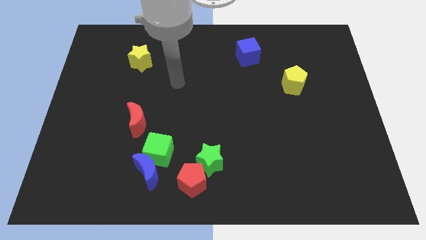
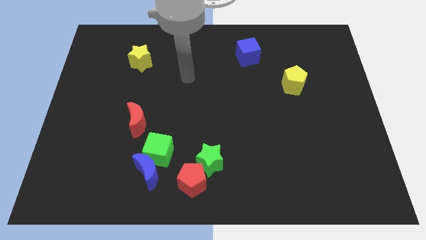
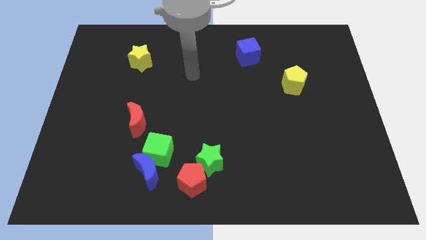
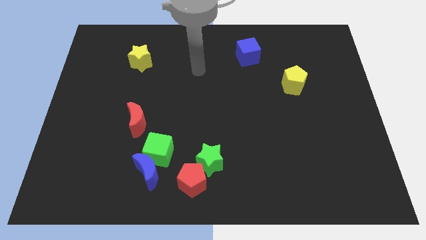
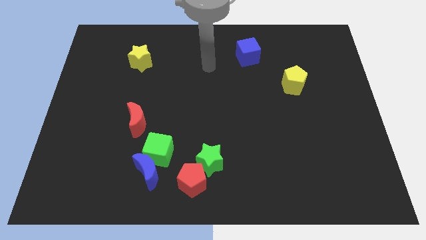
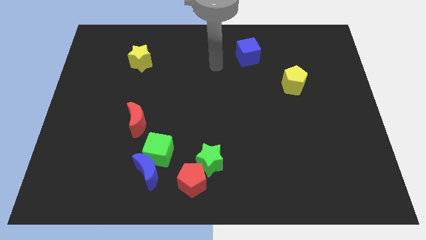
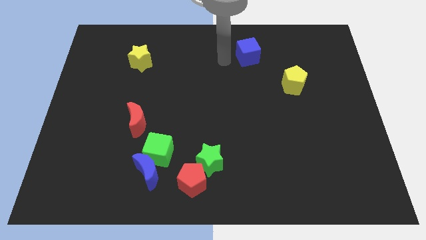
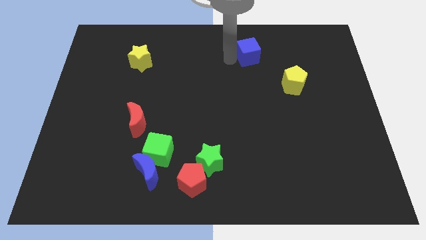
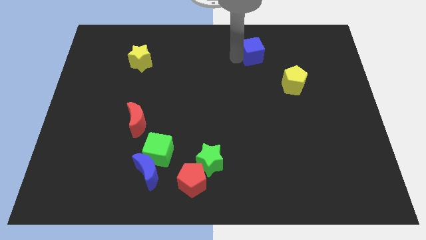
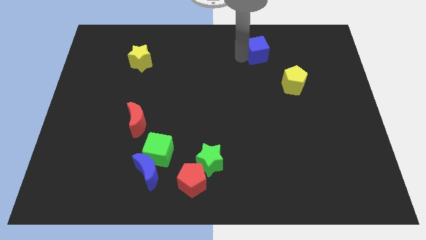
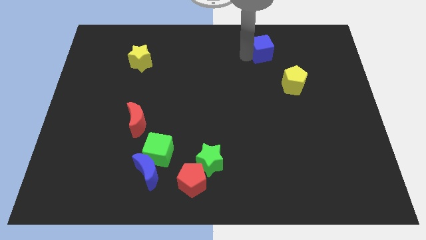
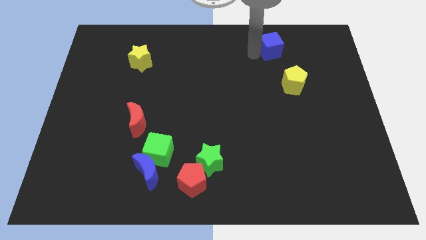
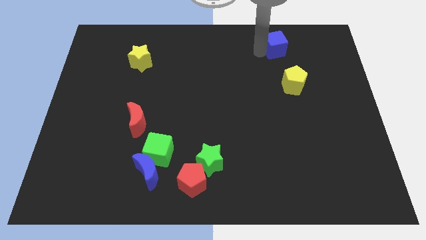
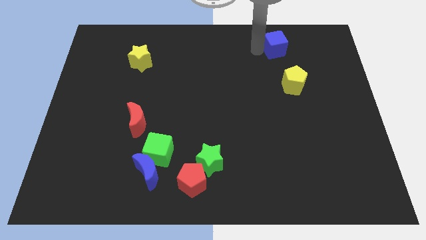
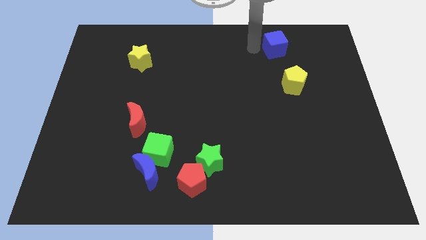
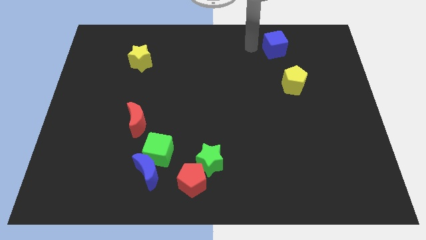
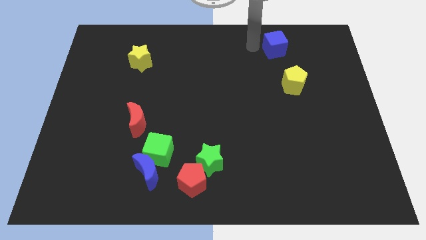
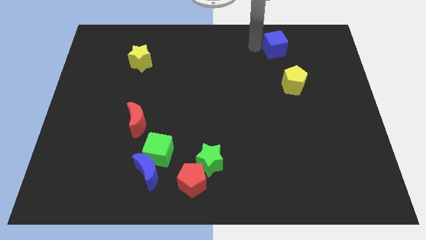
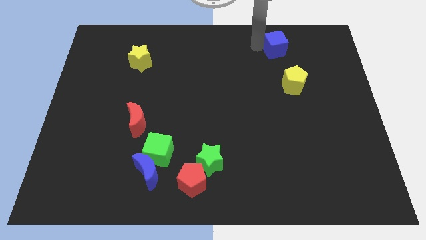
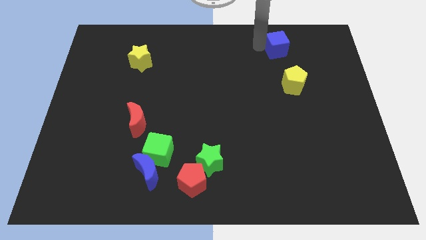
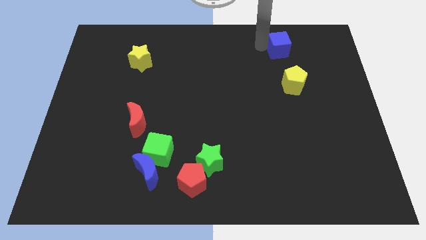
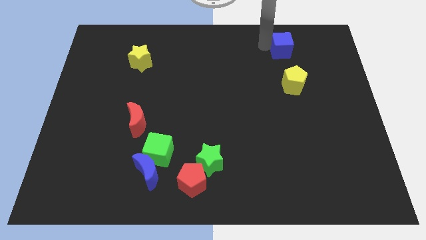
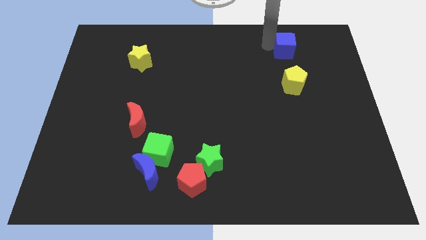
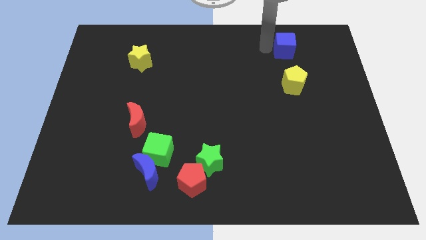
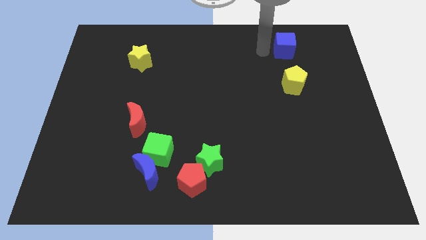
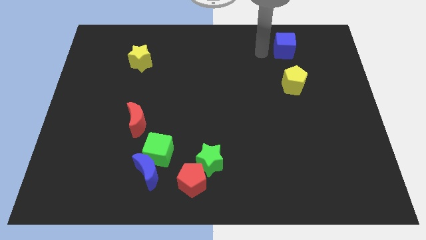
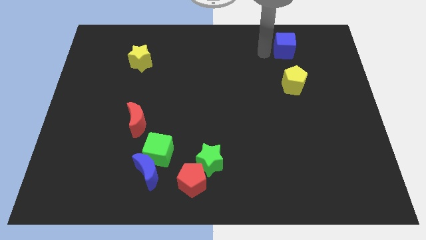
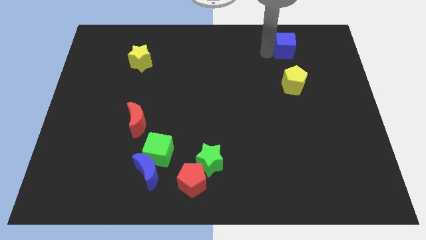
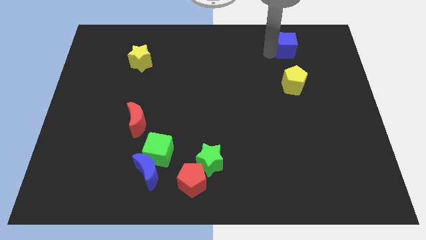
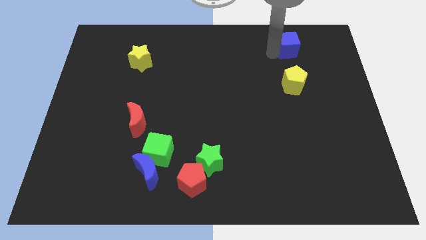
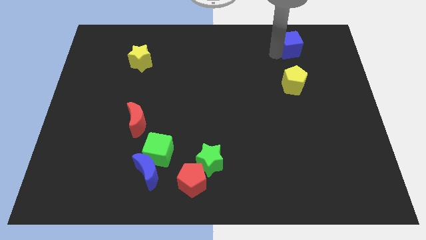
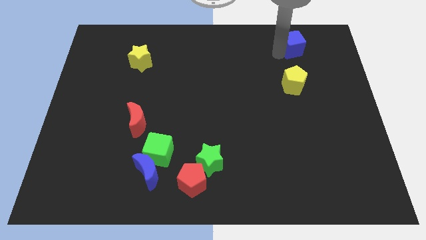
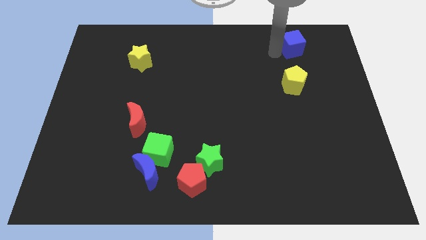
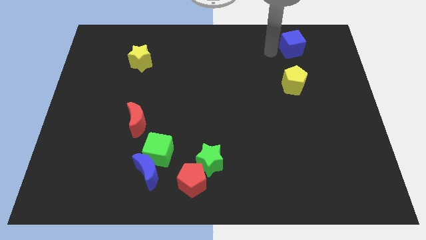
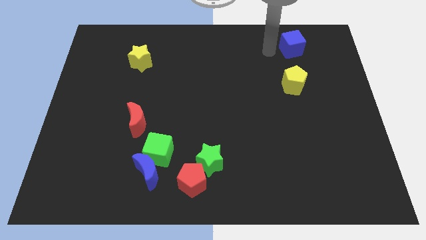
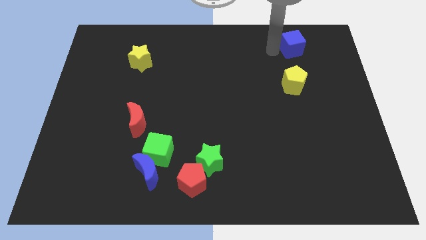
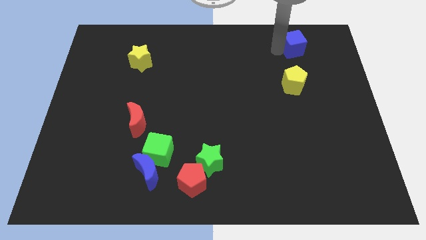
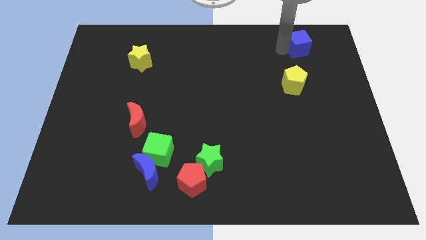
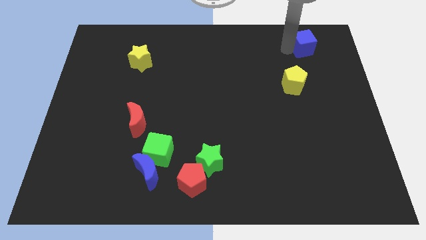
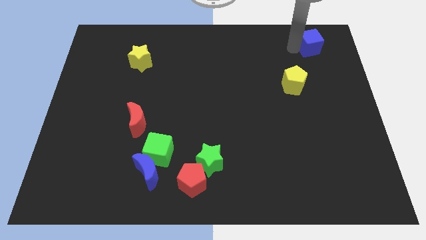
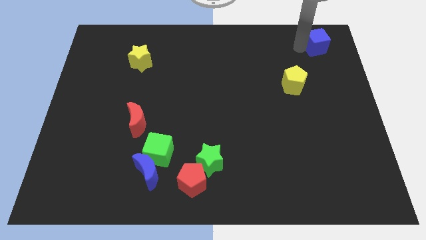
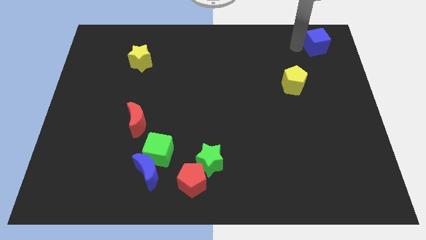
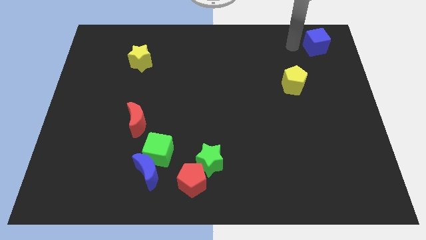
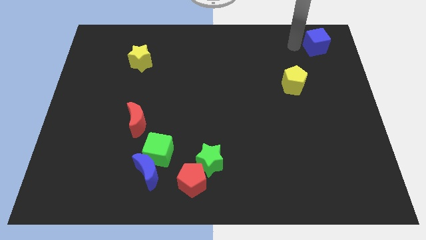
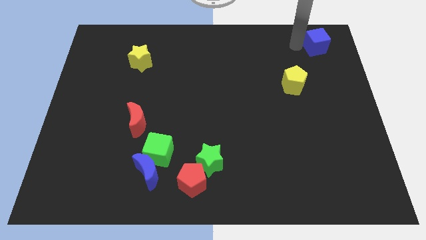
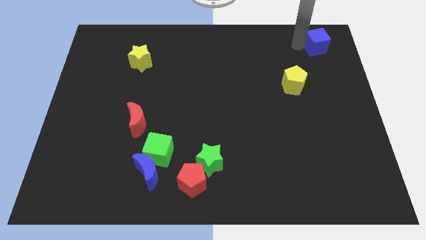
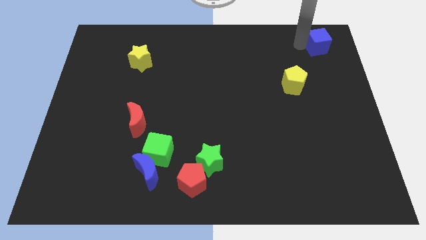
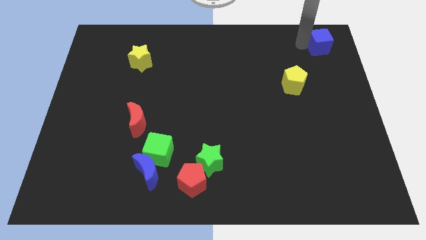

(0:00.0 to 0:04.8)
push the blue cube to the top right corner

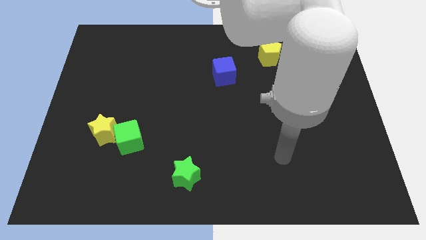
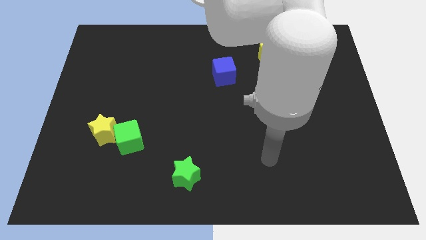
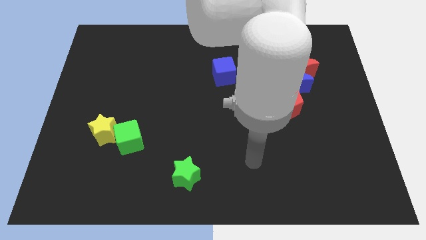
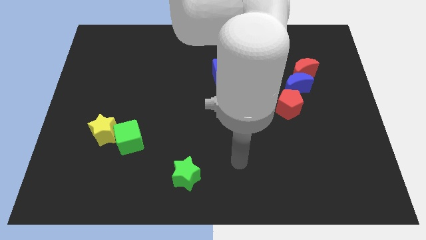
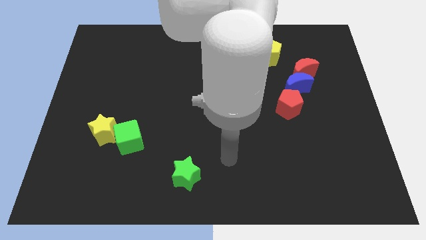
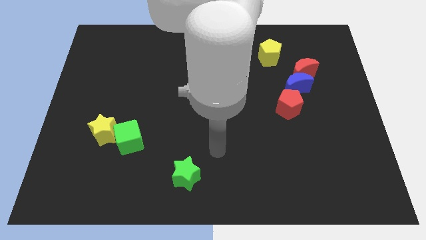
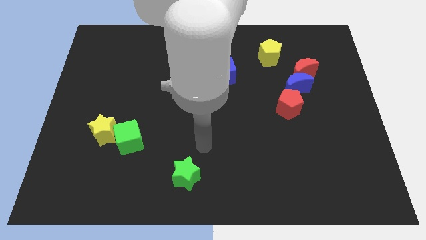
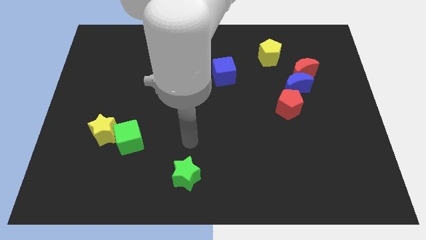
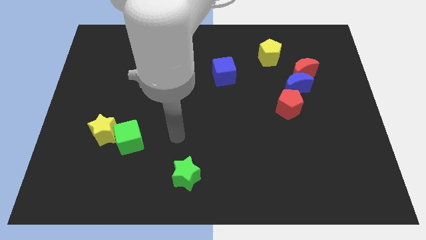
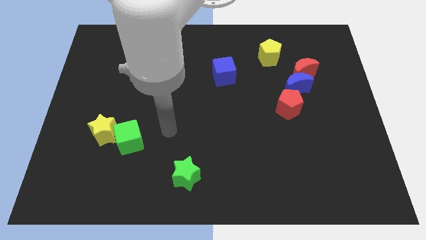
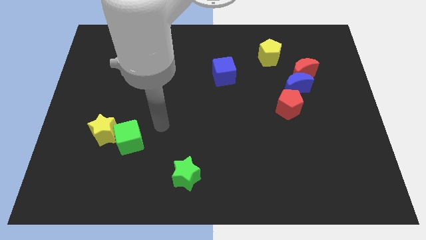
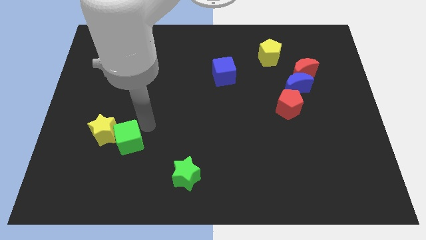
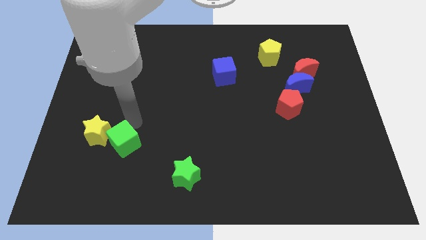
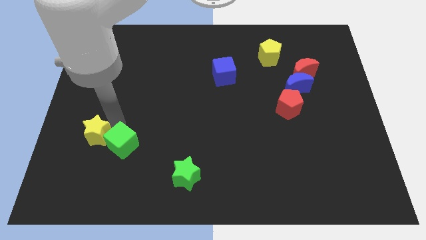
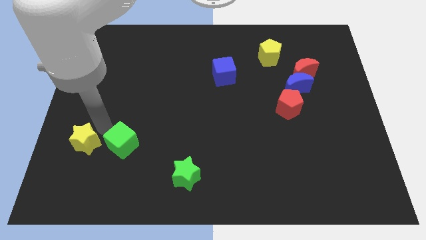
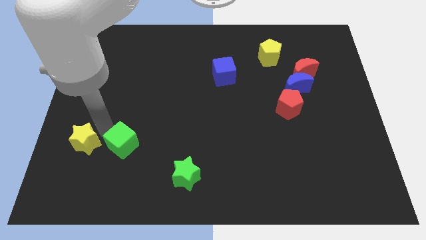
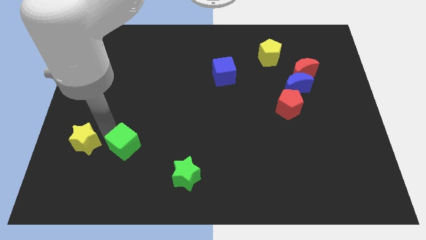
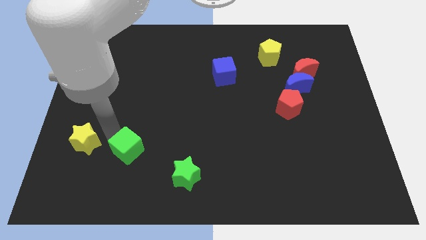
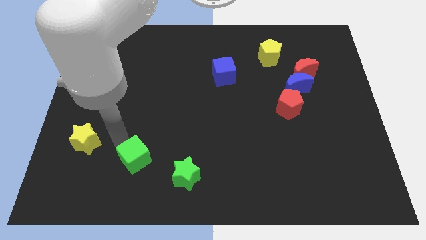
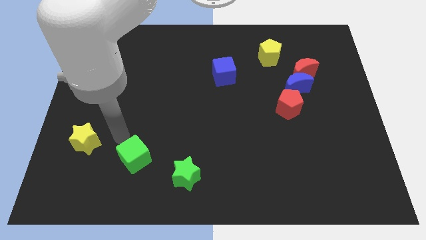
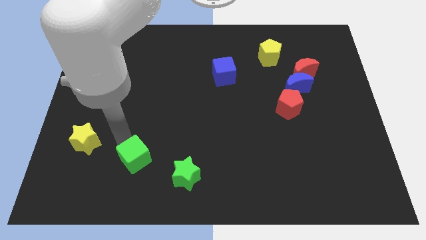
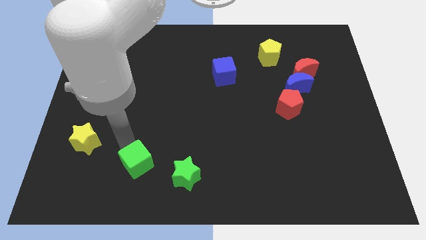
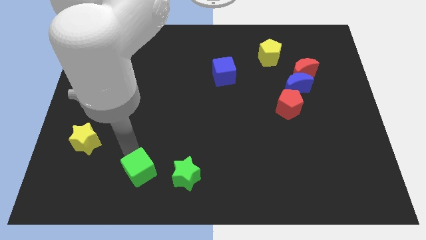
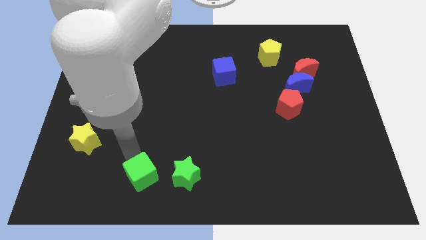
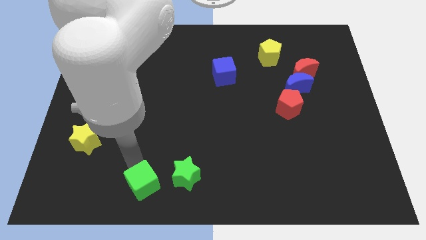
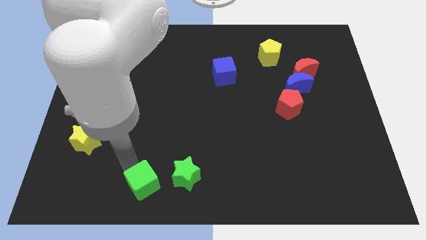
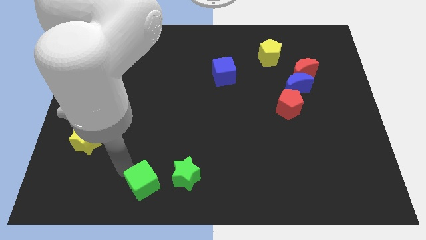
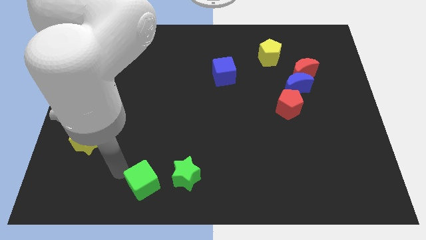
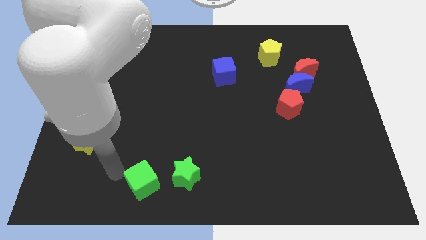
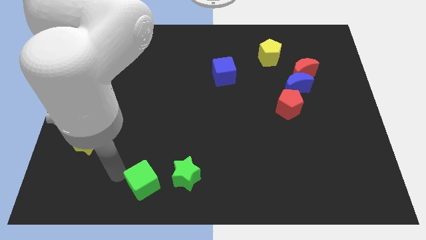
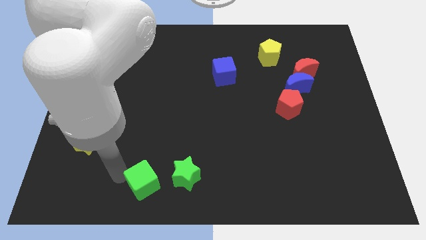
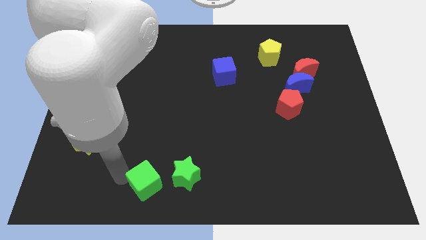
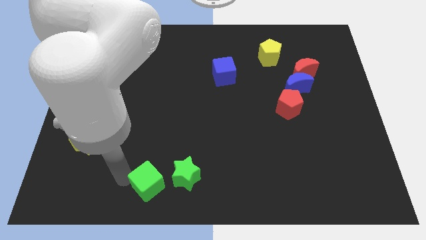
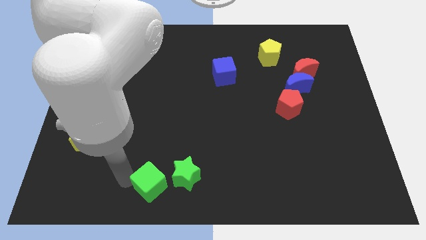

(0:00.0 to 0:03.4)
slide the green cube to the bottom
